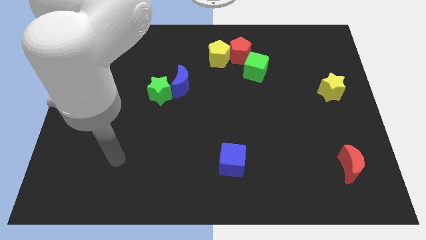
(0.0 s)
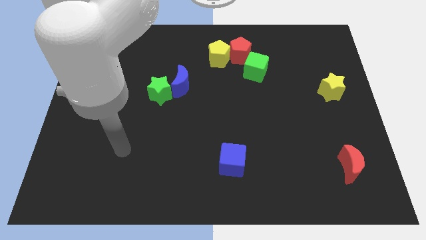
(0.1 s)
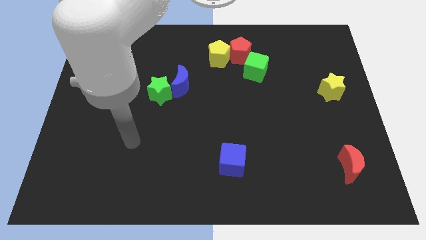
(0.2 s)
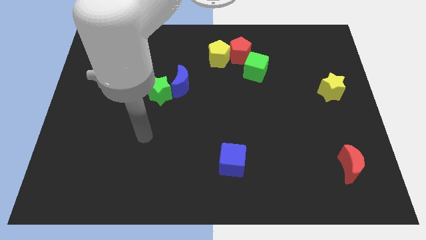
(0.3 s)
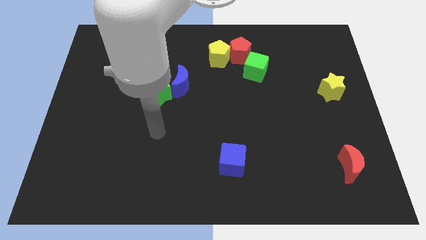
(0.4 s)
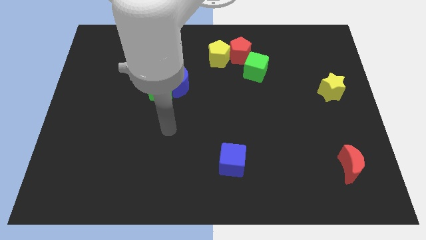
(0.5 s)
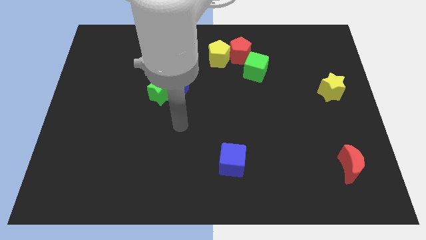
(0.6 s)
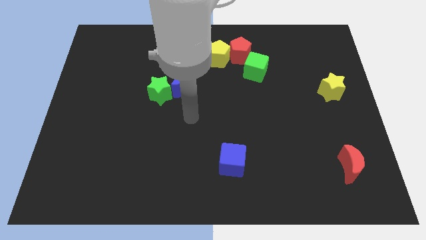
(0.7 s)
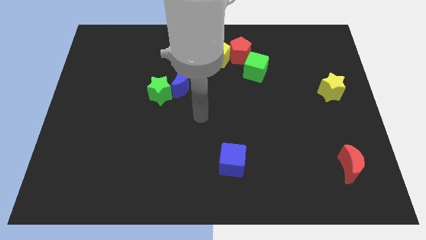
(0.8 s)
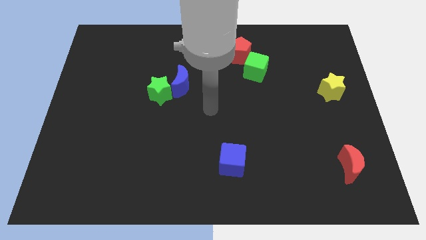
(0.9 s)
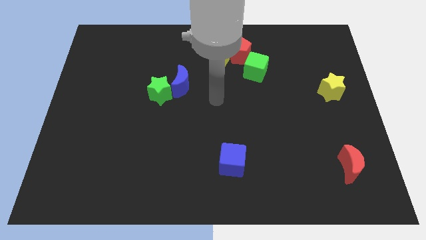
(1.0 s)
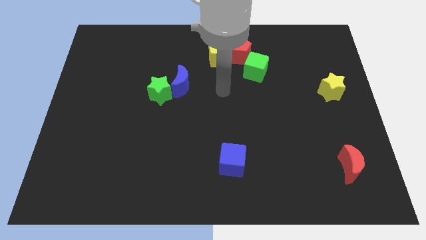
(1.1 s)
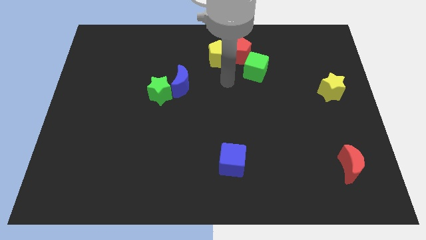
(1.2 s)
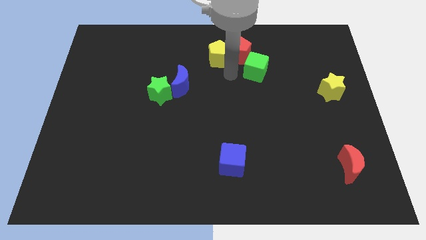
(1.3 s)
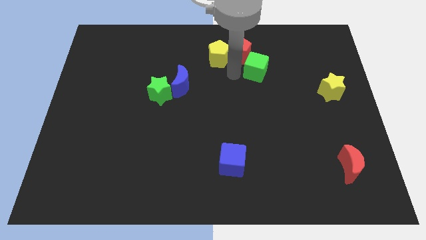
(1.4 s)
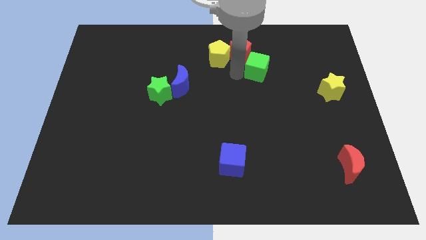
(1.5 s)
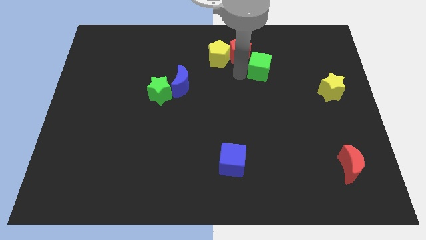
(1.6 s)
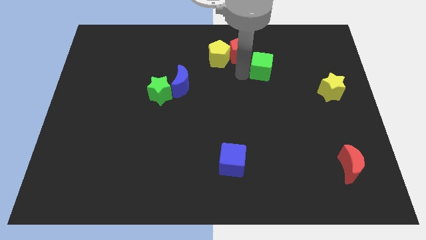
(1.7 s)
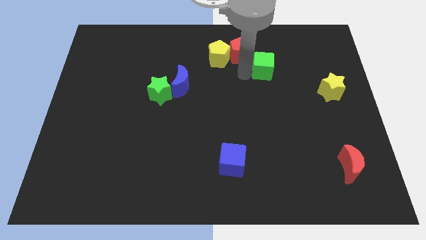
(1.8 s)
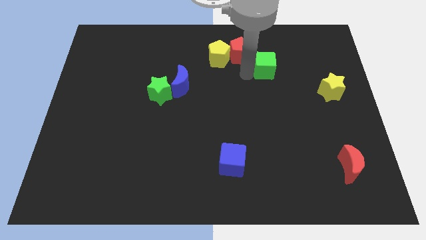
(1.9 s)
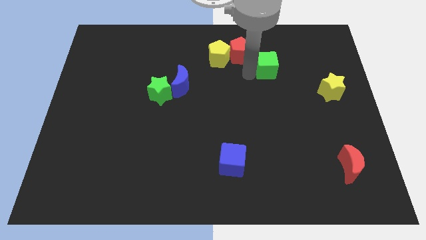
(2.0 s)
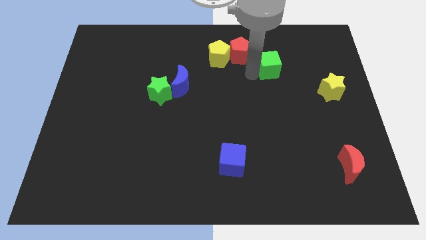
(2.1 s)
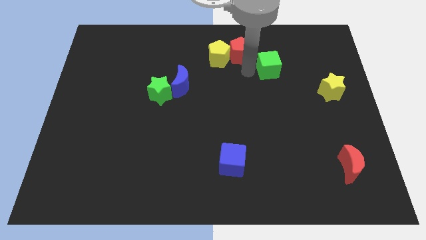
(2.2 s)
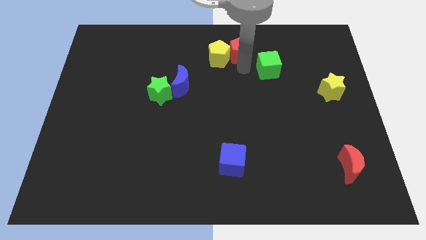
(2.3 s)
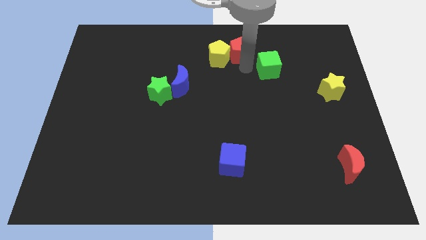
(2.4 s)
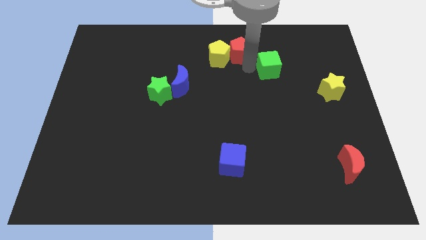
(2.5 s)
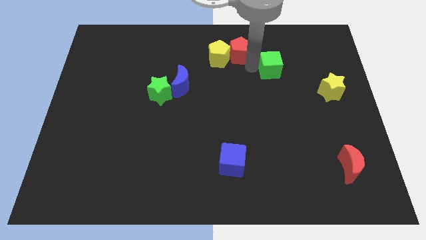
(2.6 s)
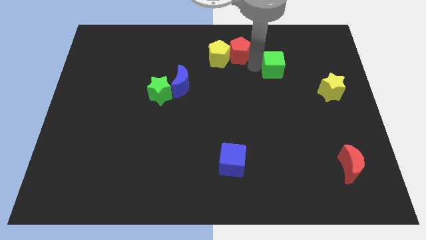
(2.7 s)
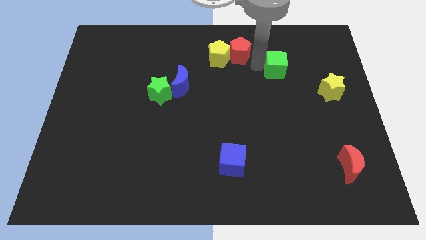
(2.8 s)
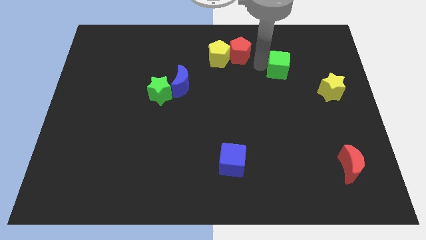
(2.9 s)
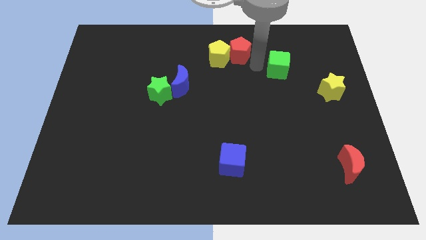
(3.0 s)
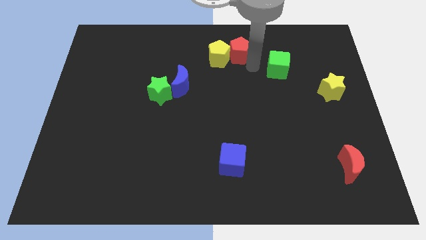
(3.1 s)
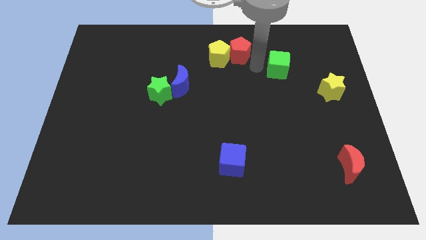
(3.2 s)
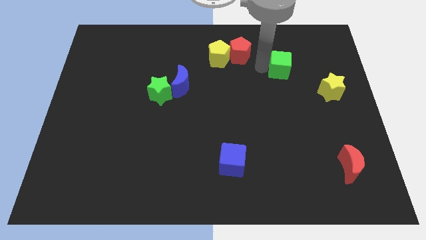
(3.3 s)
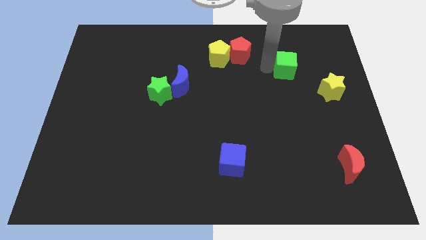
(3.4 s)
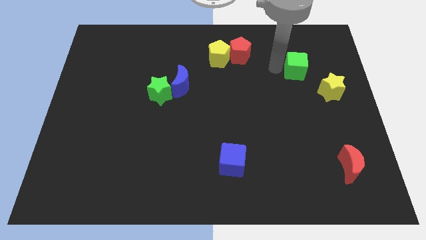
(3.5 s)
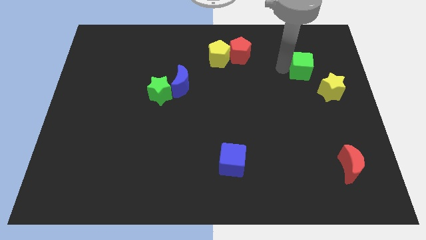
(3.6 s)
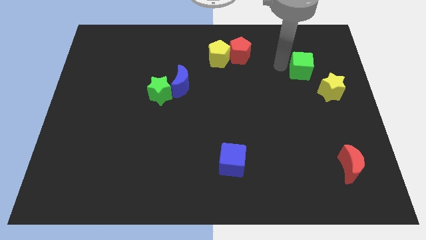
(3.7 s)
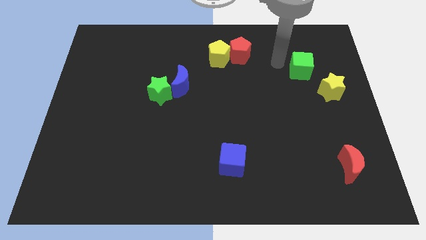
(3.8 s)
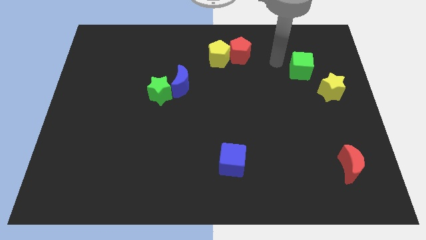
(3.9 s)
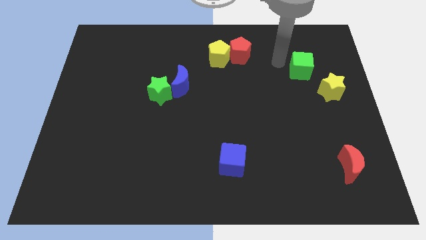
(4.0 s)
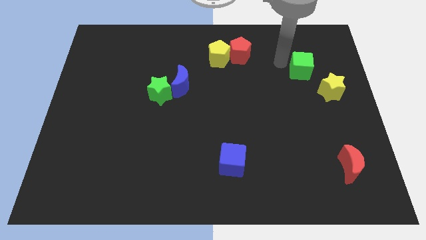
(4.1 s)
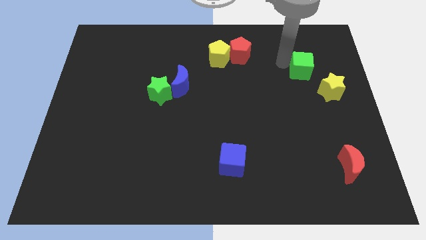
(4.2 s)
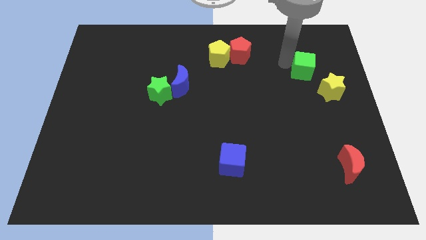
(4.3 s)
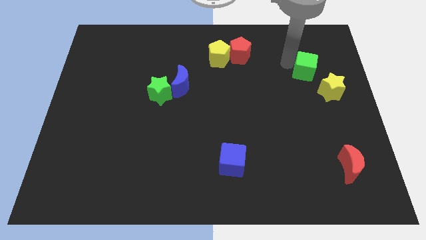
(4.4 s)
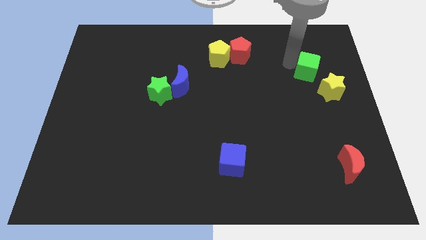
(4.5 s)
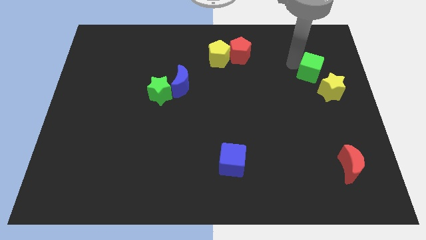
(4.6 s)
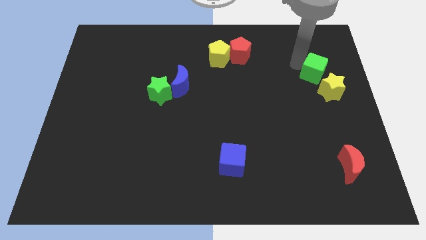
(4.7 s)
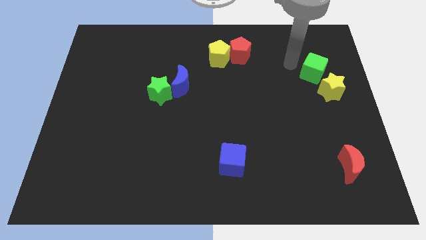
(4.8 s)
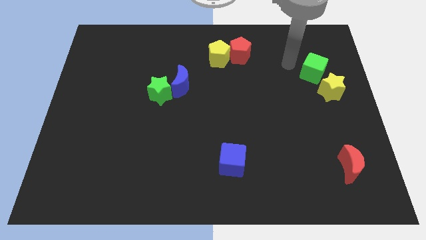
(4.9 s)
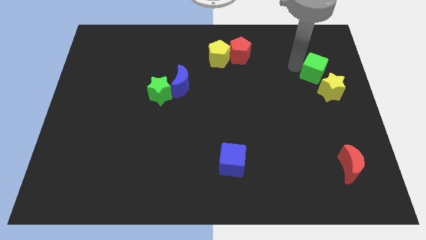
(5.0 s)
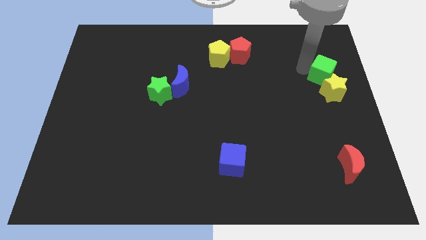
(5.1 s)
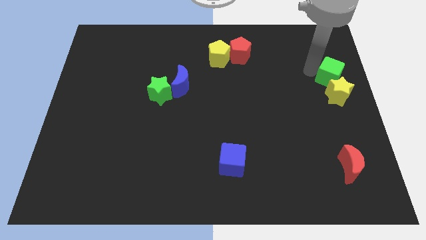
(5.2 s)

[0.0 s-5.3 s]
push the green cube to the center right
